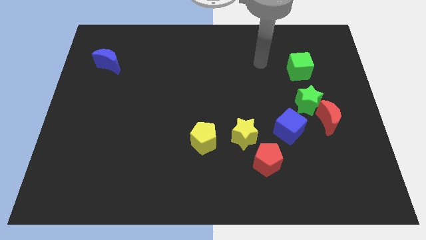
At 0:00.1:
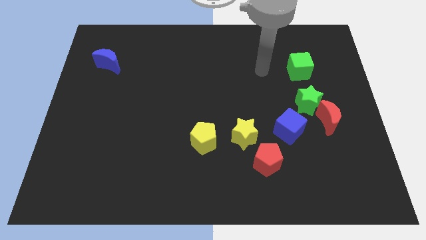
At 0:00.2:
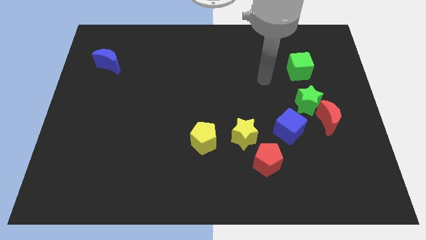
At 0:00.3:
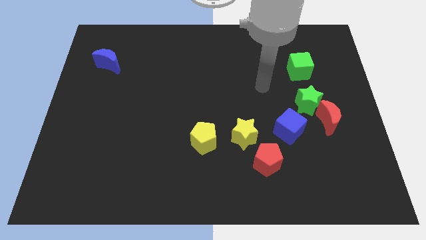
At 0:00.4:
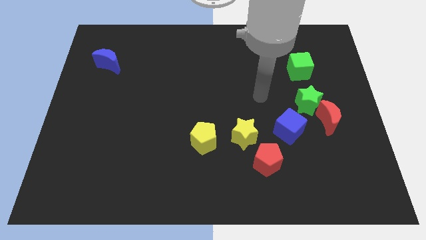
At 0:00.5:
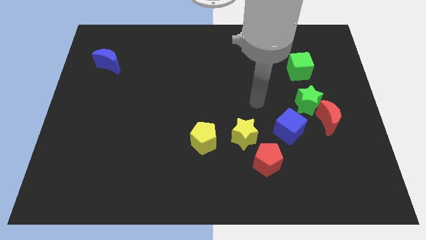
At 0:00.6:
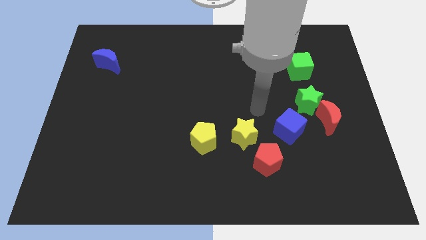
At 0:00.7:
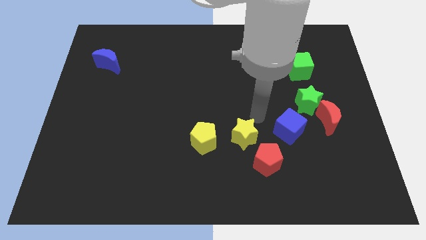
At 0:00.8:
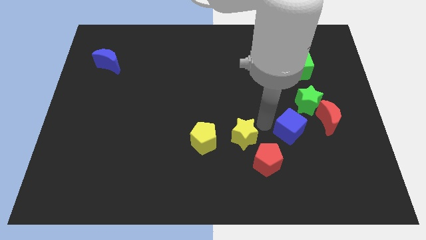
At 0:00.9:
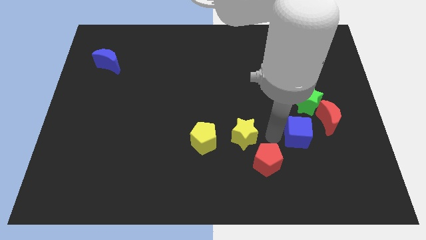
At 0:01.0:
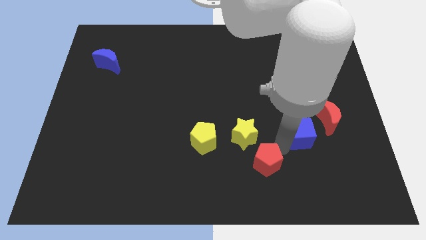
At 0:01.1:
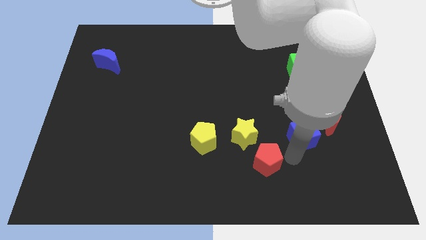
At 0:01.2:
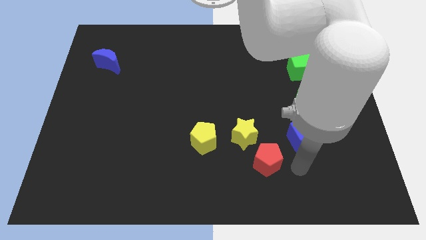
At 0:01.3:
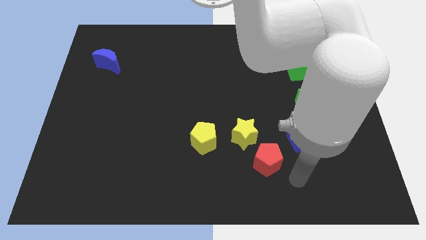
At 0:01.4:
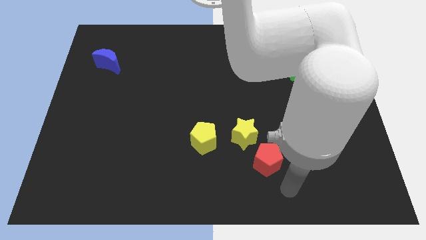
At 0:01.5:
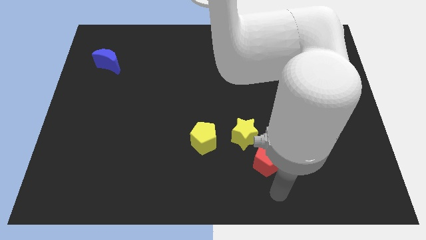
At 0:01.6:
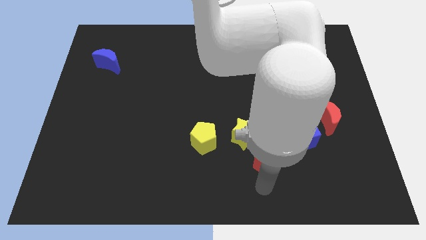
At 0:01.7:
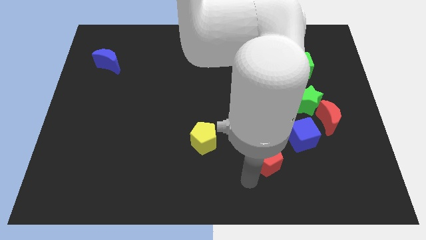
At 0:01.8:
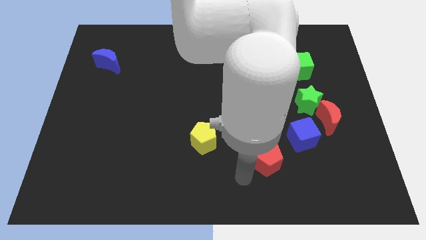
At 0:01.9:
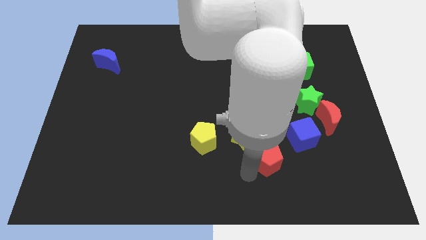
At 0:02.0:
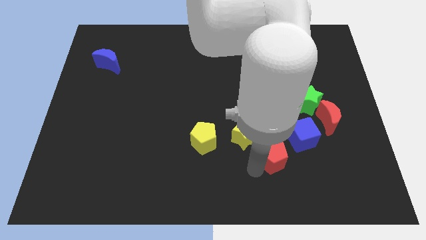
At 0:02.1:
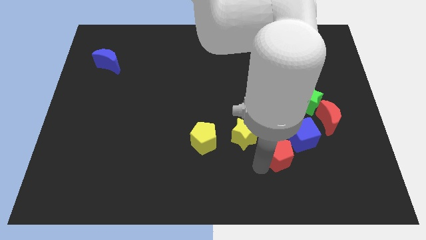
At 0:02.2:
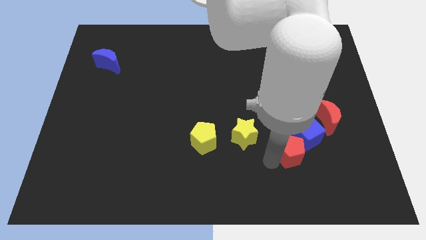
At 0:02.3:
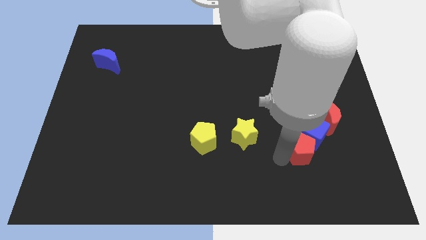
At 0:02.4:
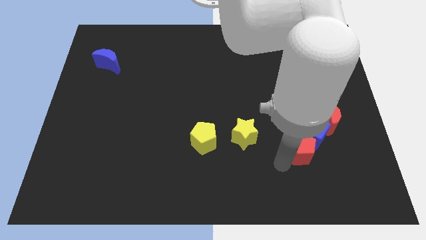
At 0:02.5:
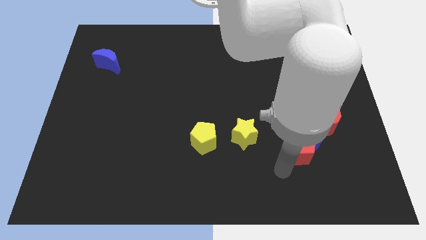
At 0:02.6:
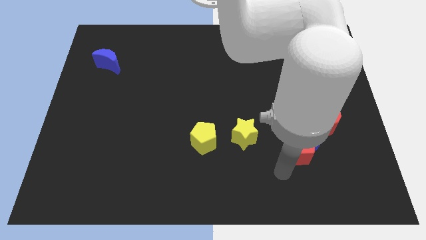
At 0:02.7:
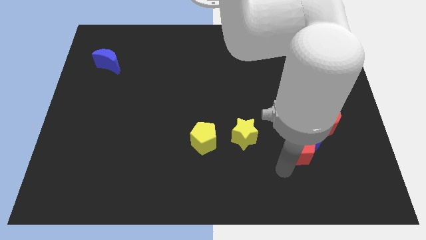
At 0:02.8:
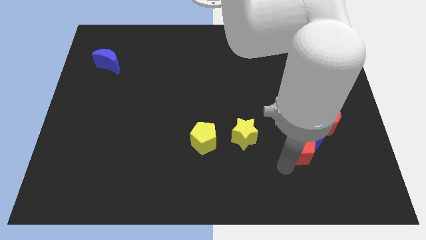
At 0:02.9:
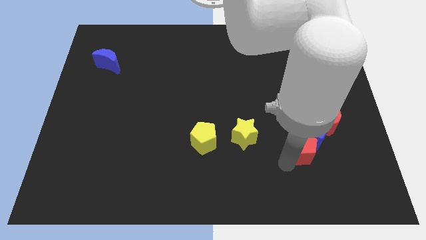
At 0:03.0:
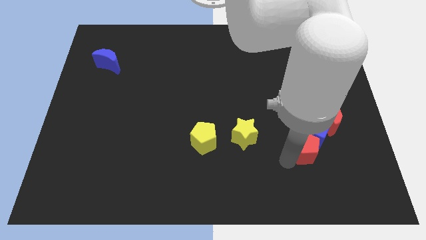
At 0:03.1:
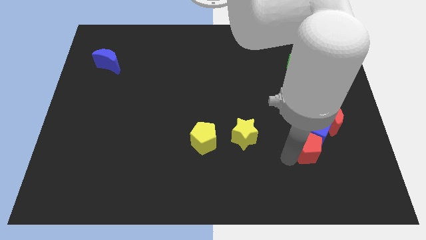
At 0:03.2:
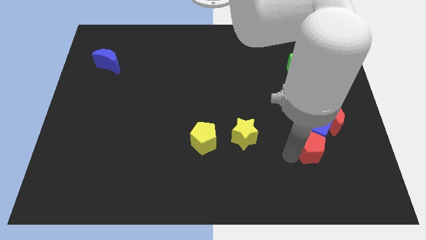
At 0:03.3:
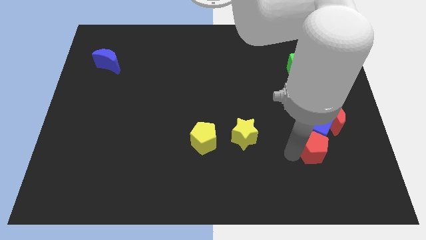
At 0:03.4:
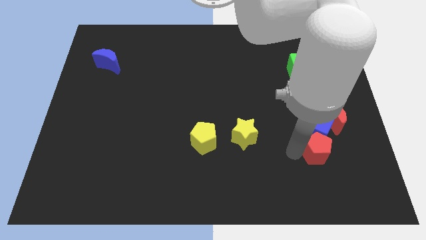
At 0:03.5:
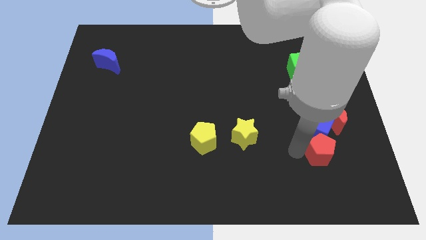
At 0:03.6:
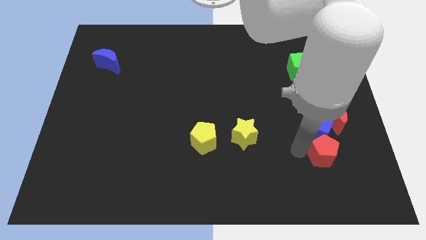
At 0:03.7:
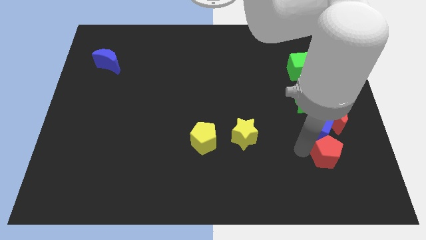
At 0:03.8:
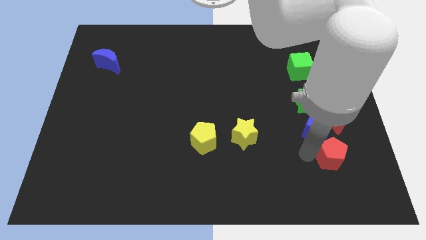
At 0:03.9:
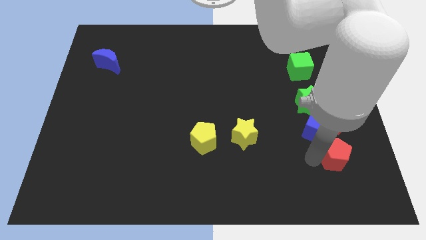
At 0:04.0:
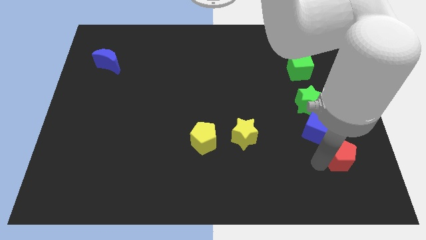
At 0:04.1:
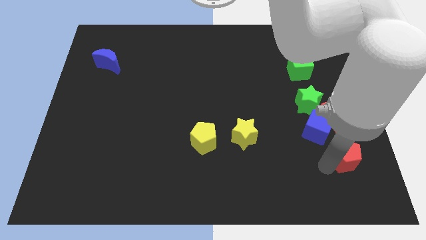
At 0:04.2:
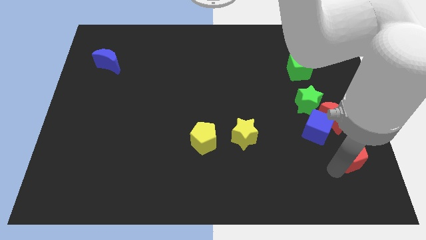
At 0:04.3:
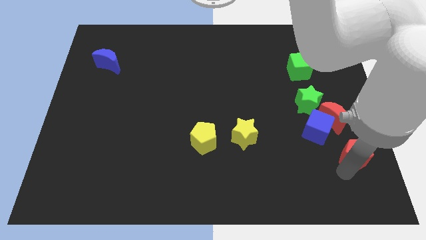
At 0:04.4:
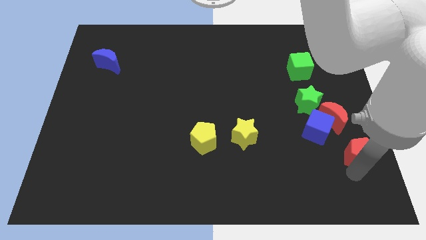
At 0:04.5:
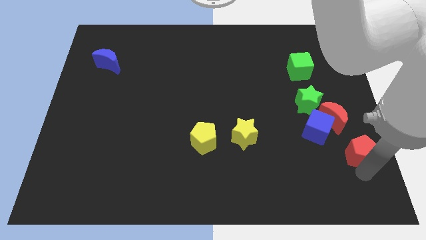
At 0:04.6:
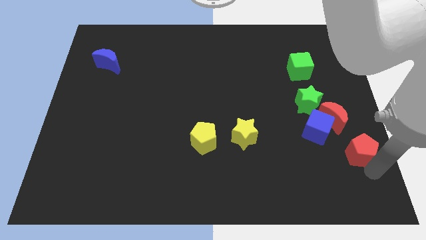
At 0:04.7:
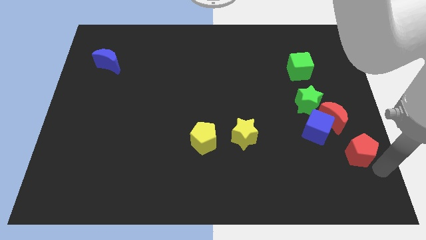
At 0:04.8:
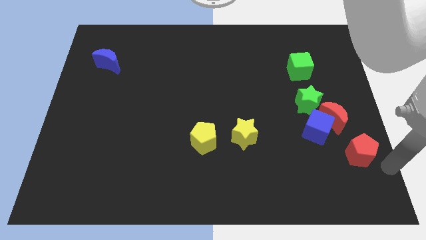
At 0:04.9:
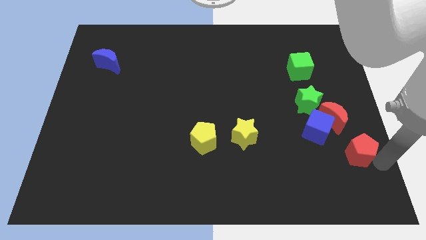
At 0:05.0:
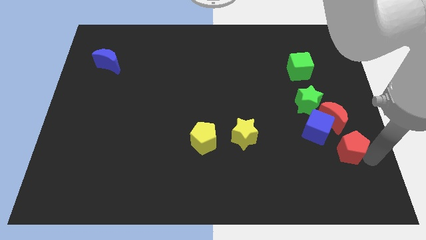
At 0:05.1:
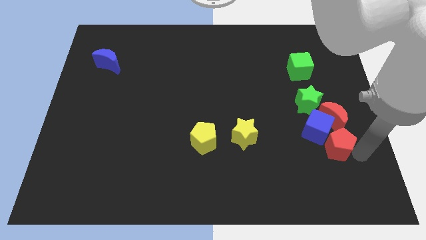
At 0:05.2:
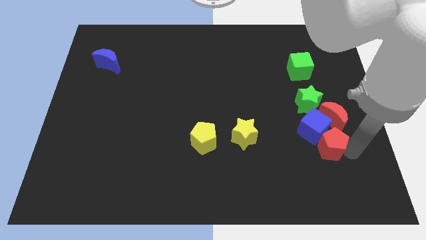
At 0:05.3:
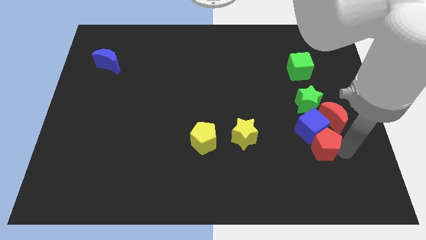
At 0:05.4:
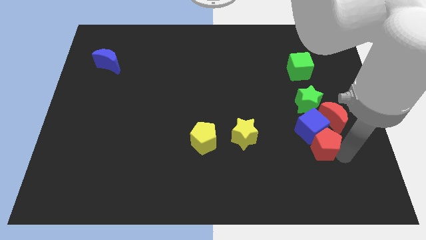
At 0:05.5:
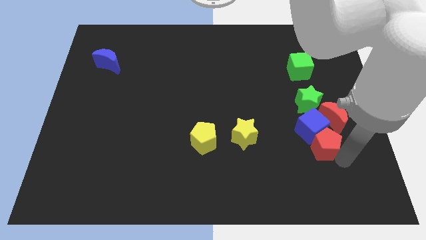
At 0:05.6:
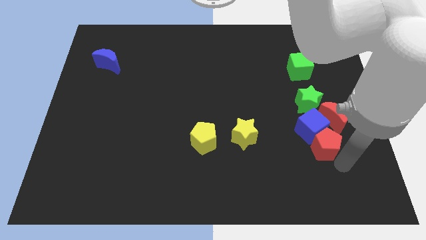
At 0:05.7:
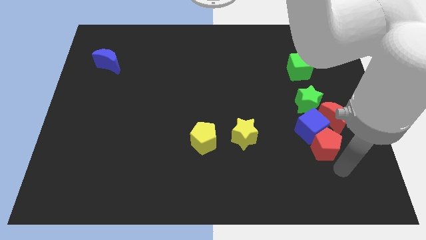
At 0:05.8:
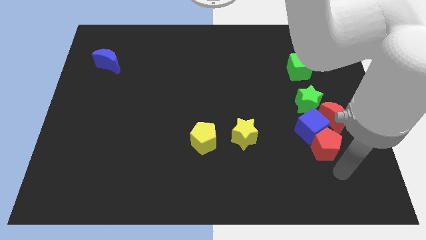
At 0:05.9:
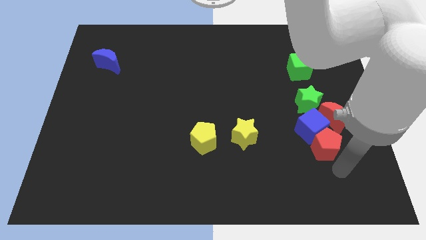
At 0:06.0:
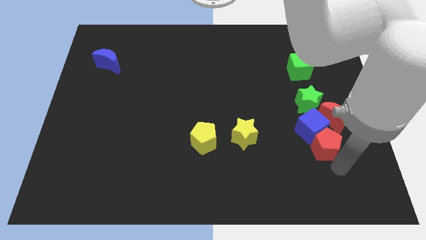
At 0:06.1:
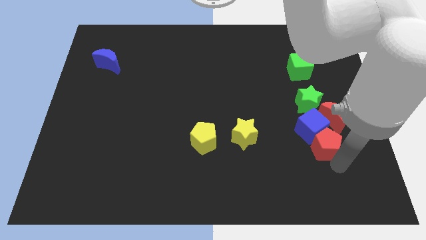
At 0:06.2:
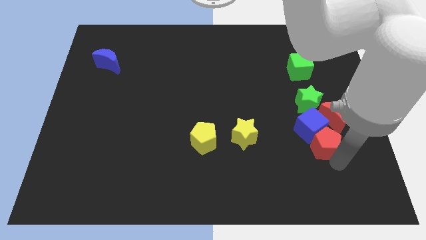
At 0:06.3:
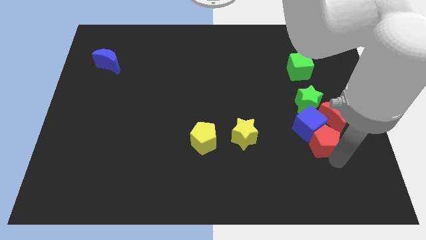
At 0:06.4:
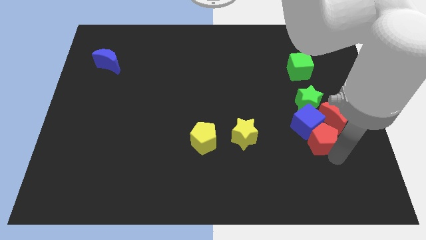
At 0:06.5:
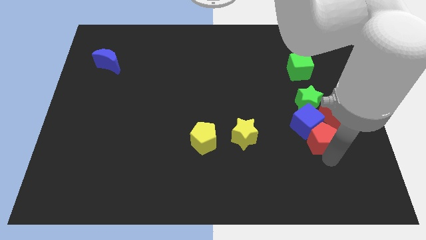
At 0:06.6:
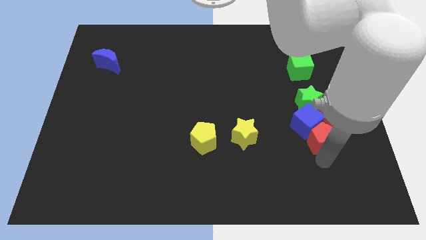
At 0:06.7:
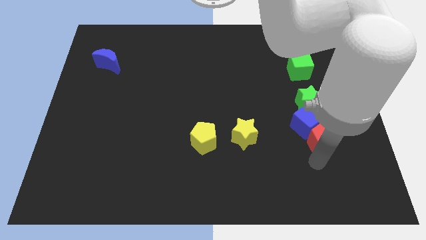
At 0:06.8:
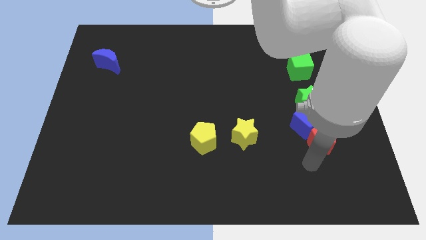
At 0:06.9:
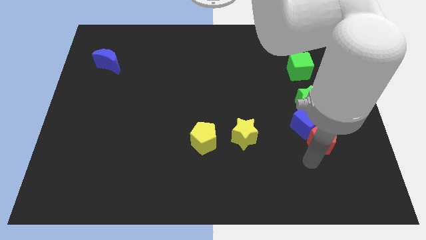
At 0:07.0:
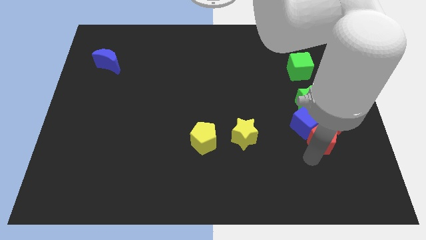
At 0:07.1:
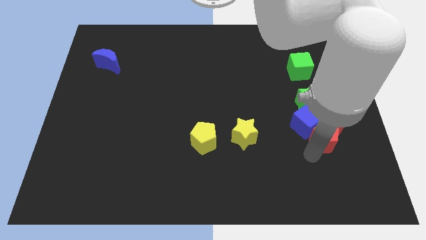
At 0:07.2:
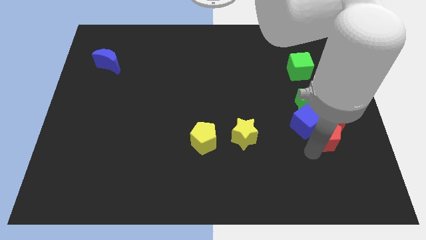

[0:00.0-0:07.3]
put the red pentagon to the red moon
